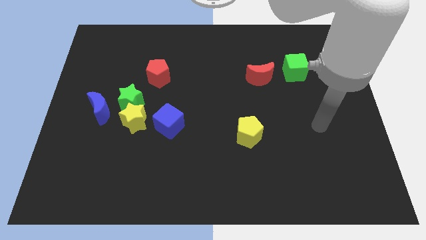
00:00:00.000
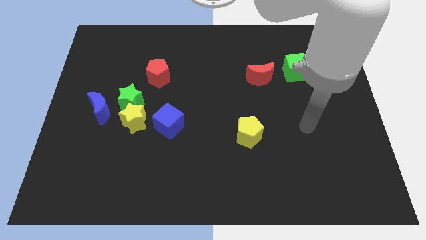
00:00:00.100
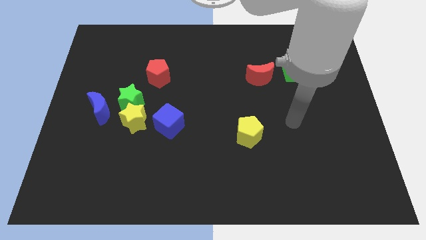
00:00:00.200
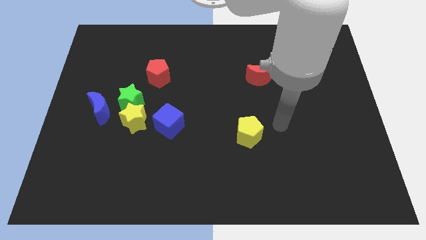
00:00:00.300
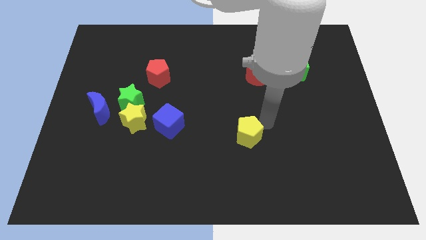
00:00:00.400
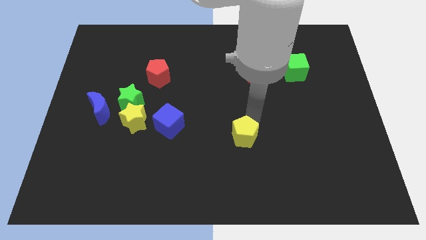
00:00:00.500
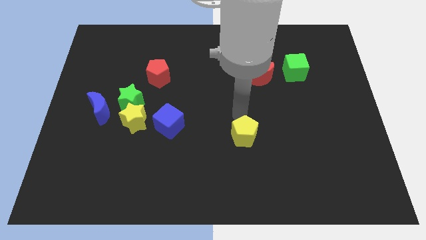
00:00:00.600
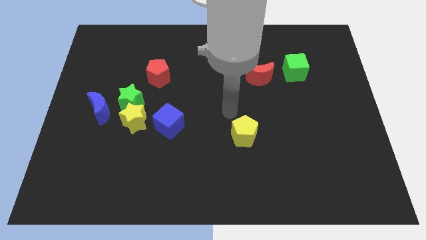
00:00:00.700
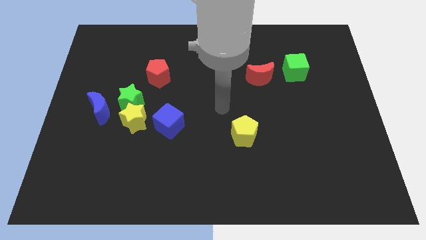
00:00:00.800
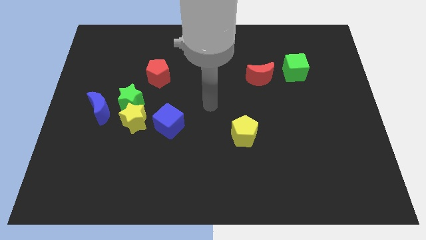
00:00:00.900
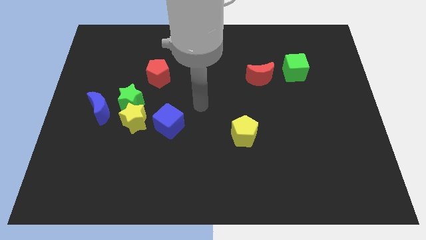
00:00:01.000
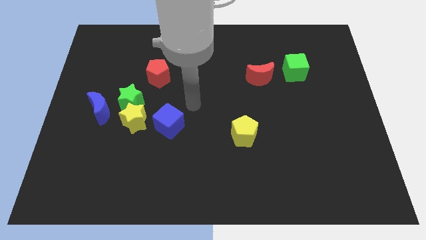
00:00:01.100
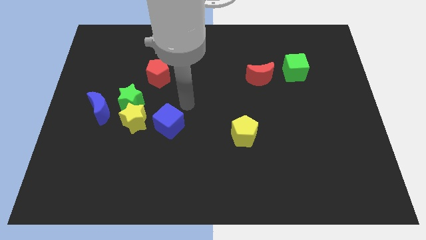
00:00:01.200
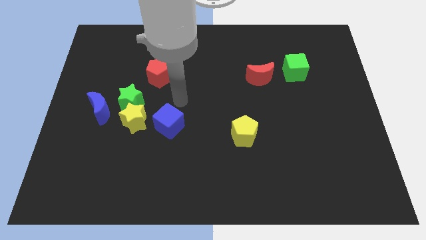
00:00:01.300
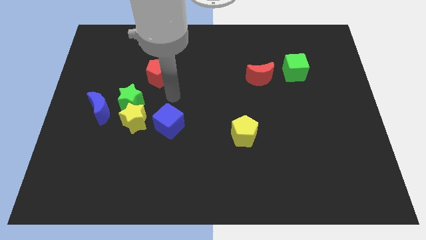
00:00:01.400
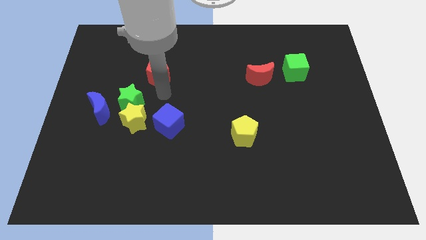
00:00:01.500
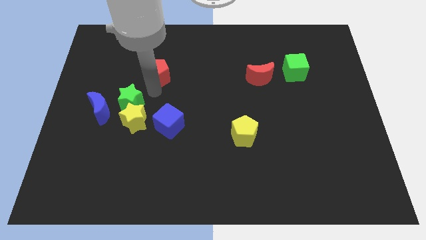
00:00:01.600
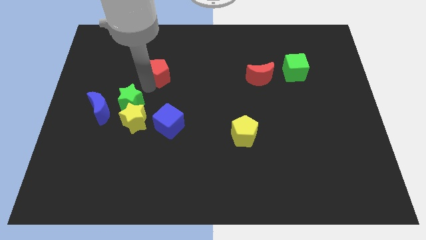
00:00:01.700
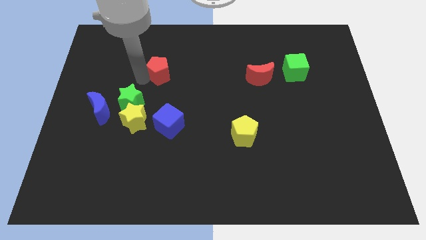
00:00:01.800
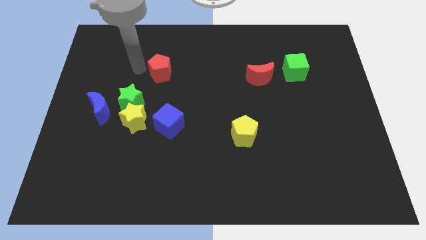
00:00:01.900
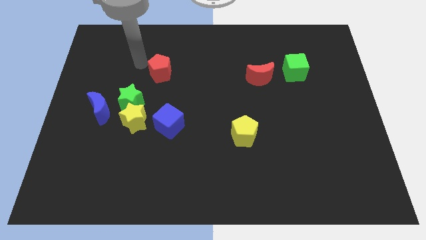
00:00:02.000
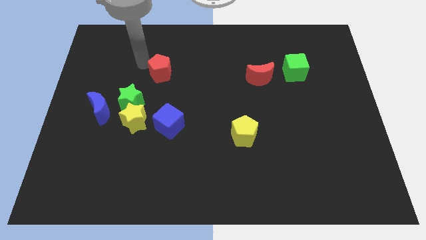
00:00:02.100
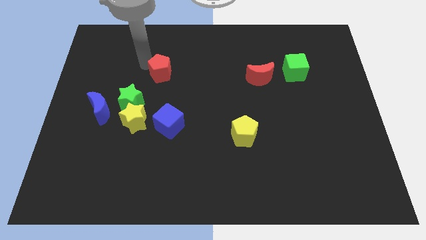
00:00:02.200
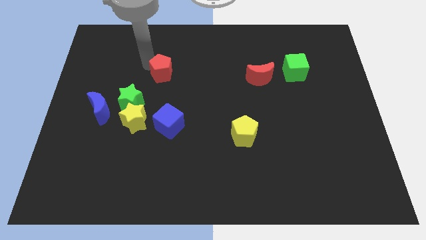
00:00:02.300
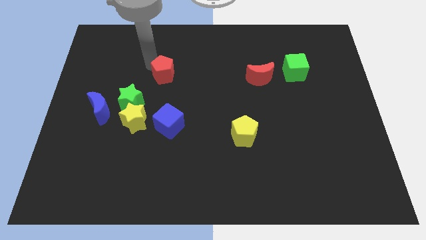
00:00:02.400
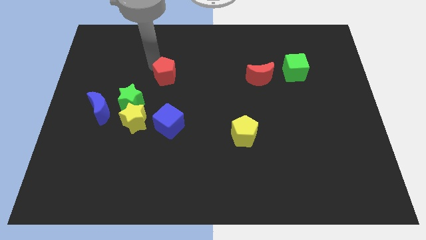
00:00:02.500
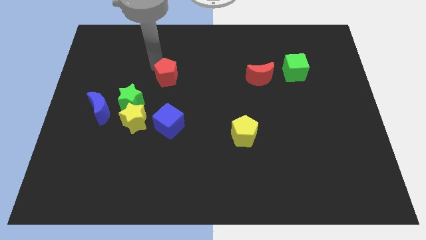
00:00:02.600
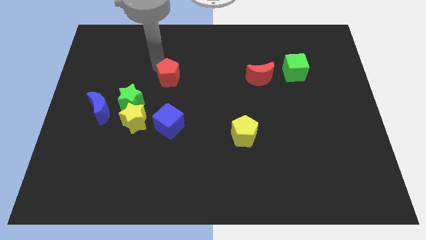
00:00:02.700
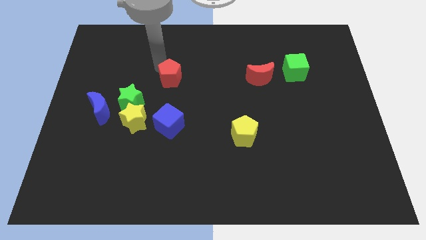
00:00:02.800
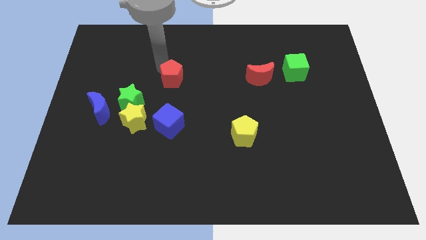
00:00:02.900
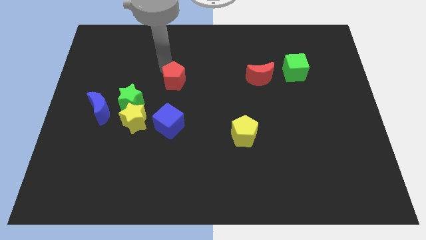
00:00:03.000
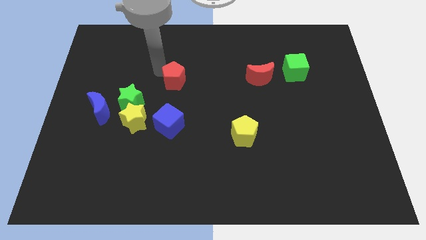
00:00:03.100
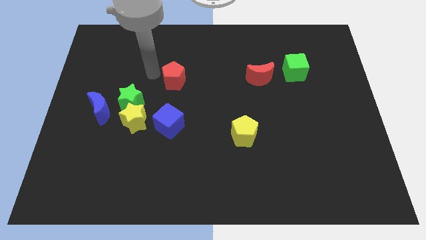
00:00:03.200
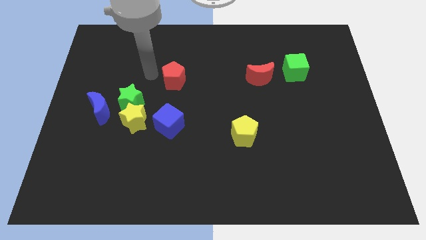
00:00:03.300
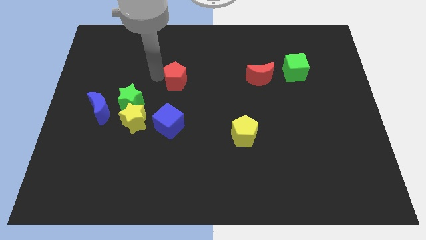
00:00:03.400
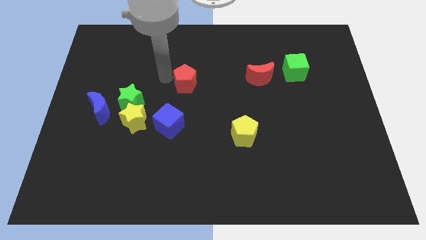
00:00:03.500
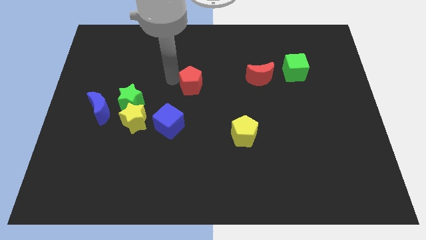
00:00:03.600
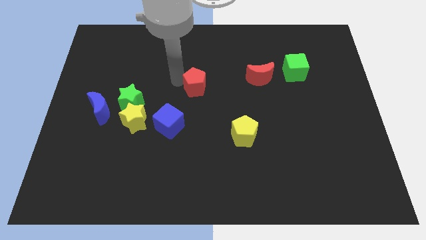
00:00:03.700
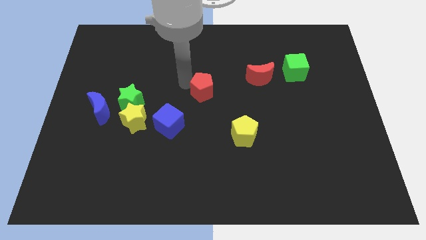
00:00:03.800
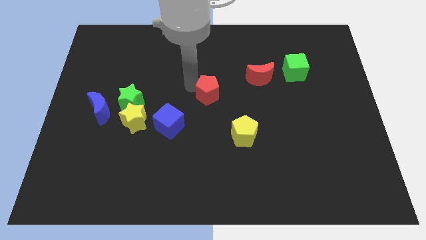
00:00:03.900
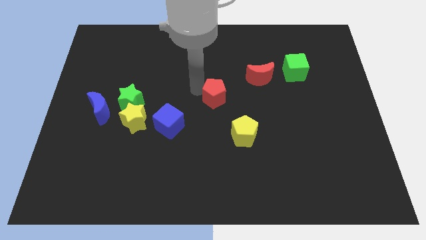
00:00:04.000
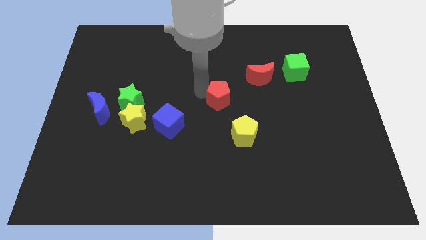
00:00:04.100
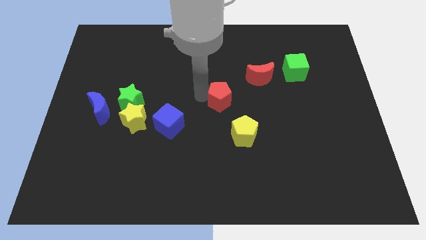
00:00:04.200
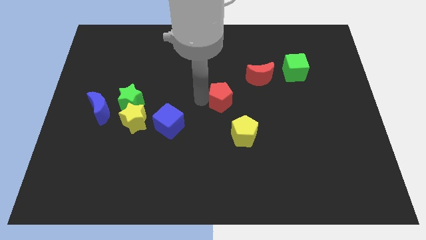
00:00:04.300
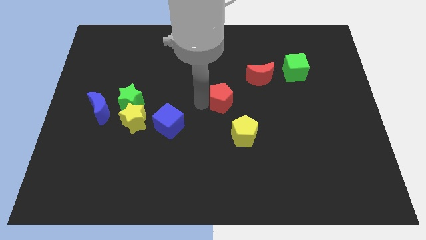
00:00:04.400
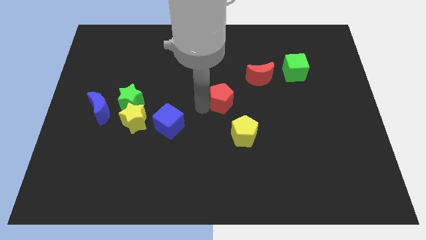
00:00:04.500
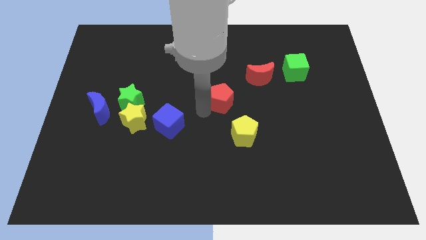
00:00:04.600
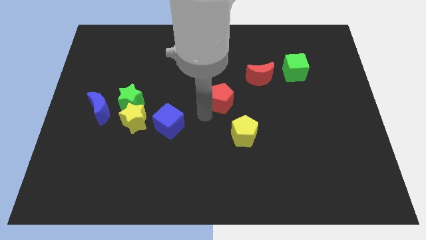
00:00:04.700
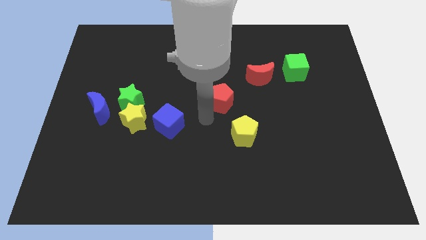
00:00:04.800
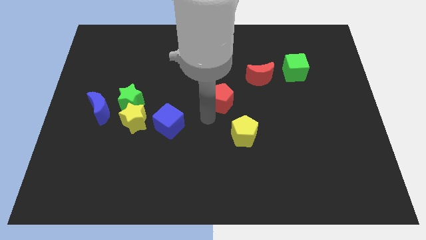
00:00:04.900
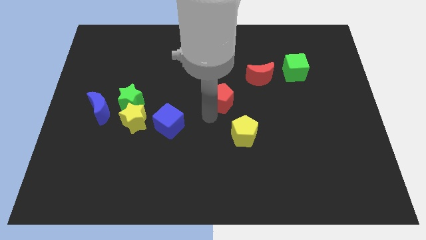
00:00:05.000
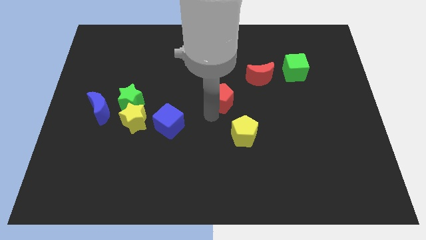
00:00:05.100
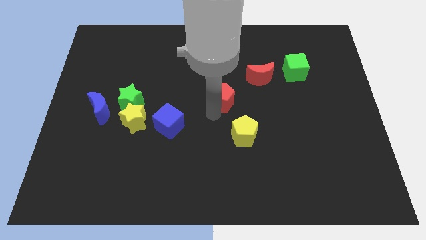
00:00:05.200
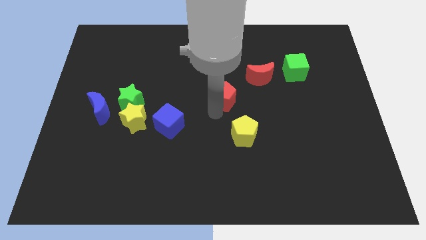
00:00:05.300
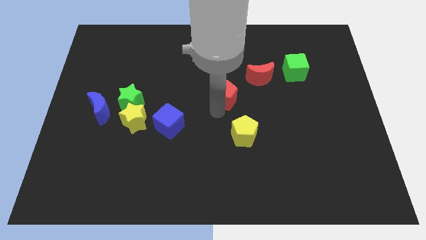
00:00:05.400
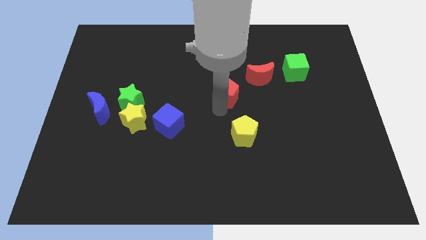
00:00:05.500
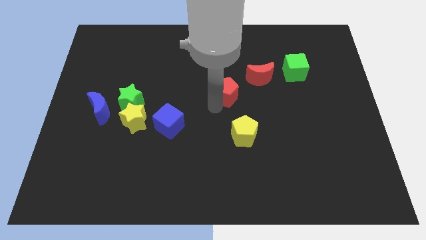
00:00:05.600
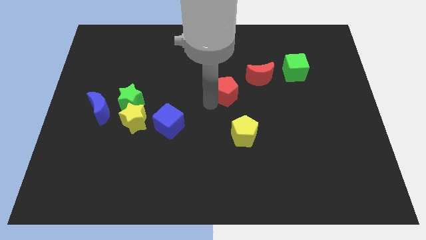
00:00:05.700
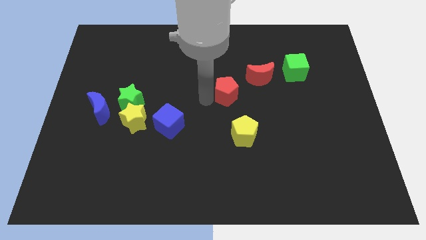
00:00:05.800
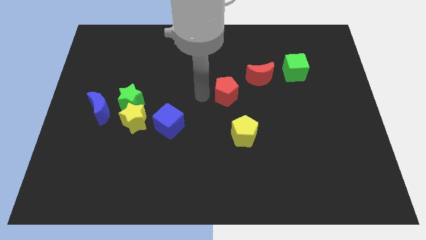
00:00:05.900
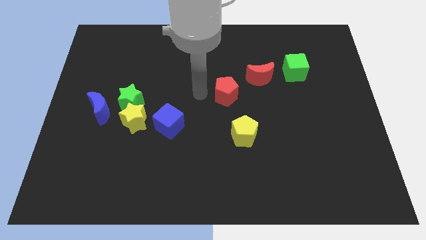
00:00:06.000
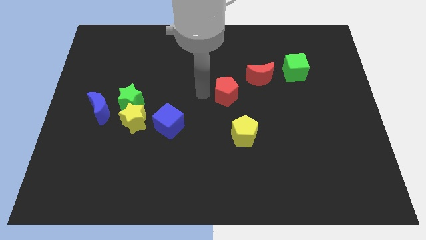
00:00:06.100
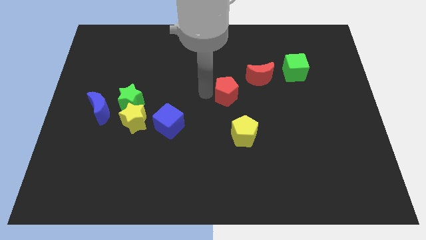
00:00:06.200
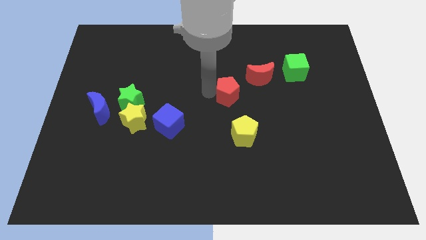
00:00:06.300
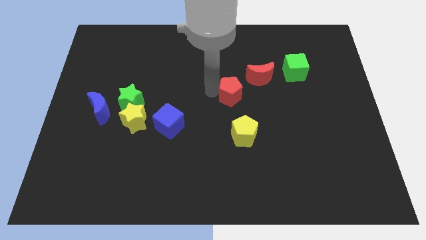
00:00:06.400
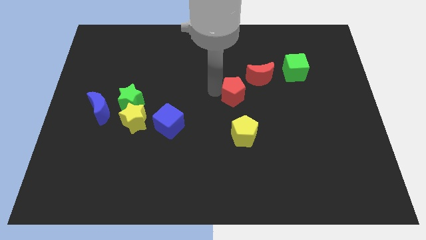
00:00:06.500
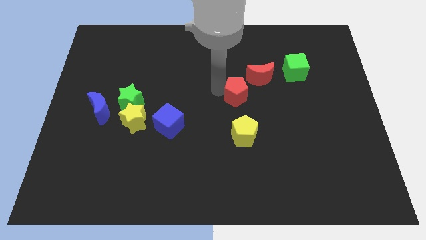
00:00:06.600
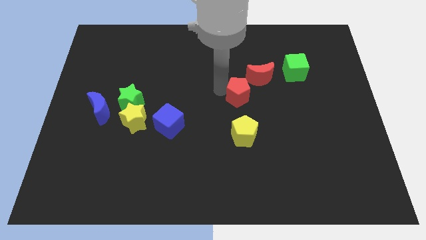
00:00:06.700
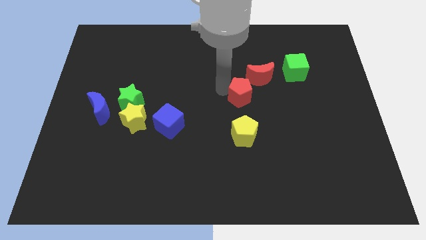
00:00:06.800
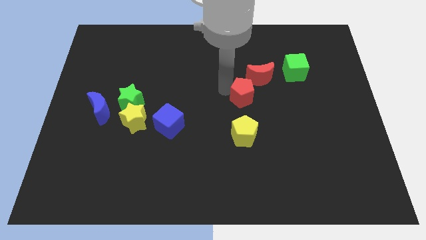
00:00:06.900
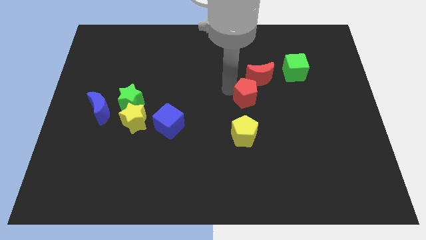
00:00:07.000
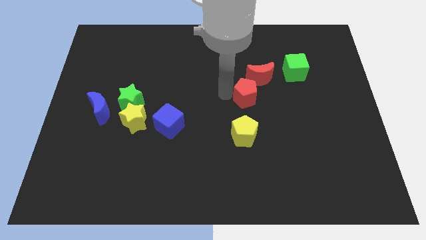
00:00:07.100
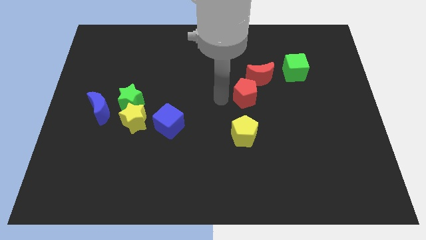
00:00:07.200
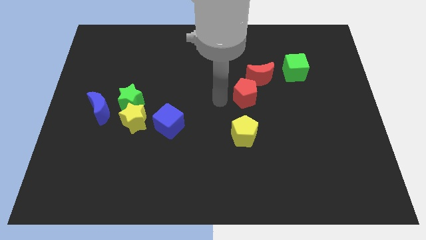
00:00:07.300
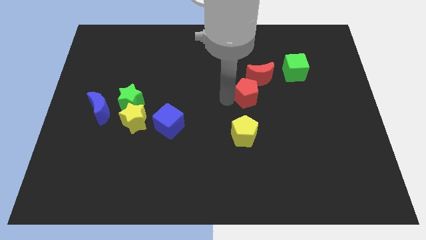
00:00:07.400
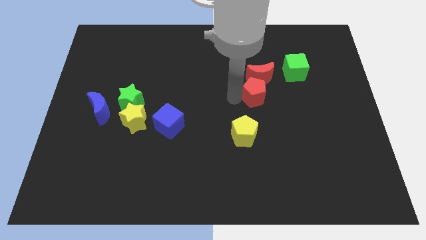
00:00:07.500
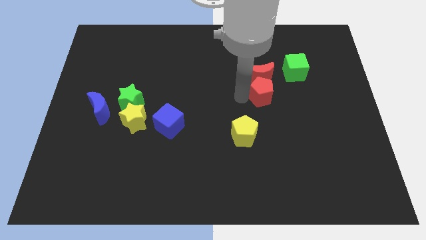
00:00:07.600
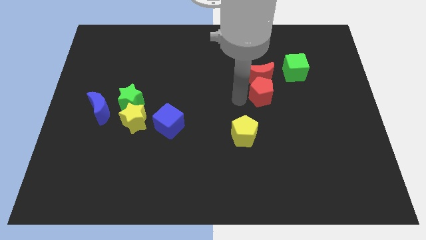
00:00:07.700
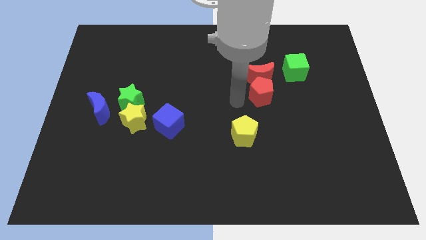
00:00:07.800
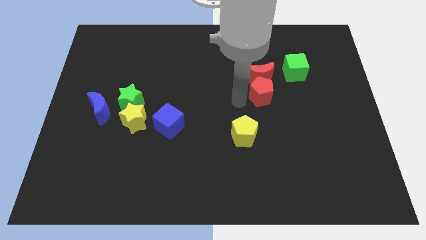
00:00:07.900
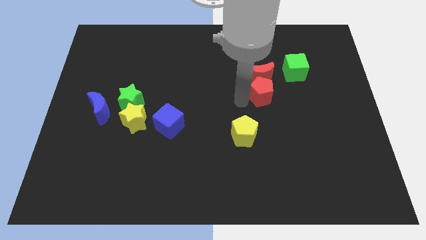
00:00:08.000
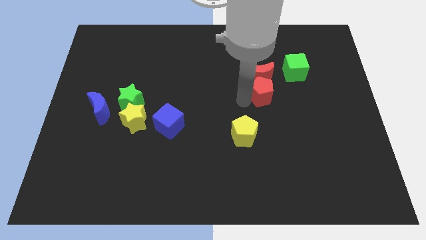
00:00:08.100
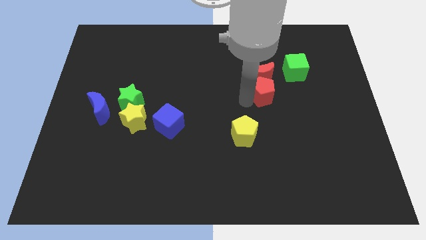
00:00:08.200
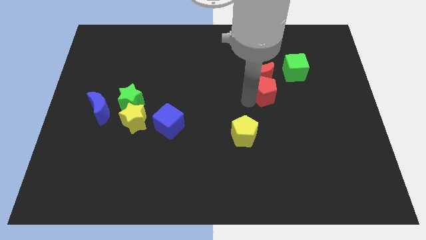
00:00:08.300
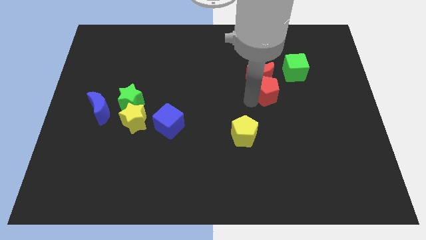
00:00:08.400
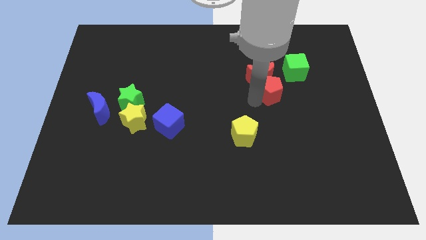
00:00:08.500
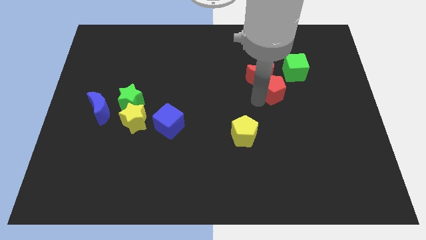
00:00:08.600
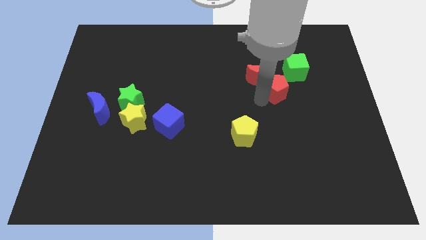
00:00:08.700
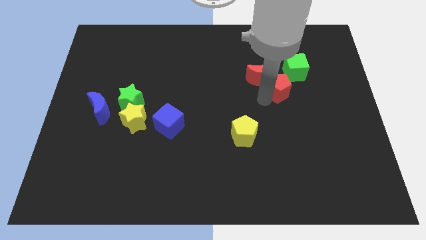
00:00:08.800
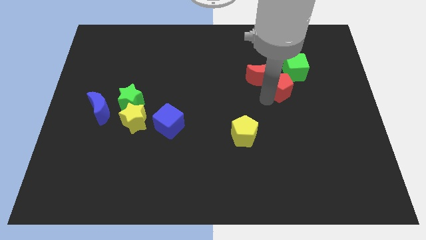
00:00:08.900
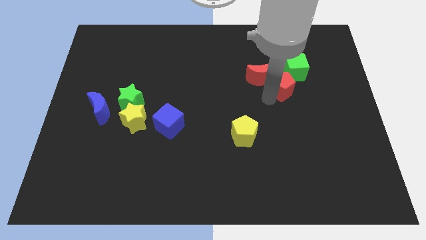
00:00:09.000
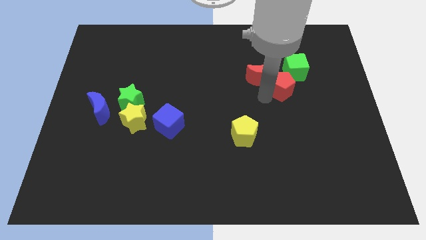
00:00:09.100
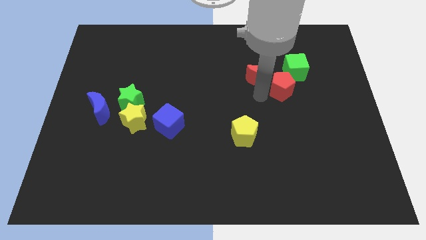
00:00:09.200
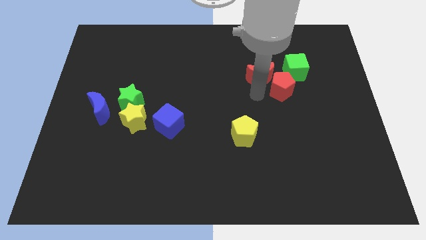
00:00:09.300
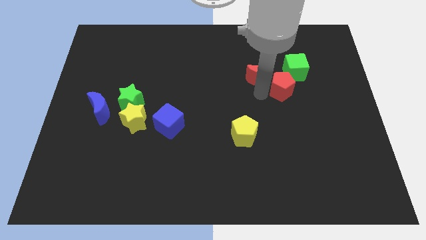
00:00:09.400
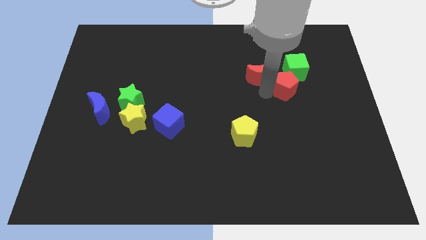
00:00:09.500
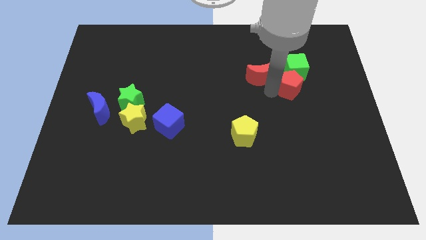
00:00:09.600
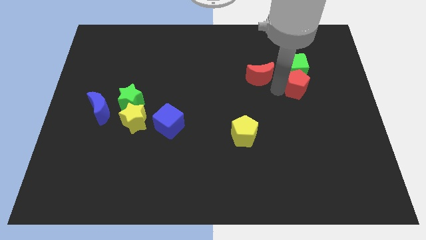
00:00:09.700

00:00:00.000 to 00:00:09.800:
put the red pentagon diagonally down and to the right of the green cube
